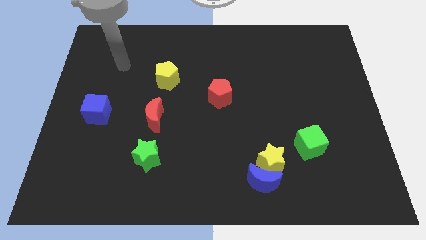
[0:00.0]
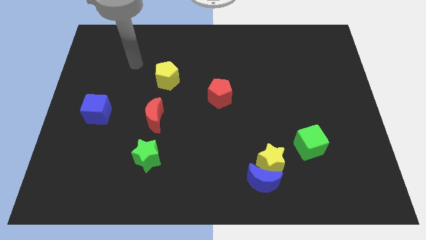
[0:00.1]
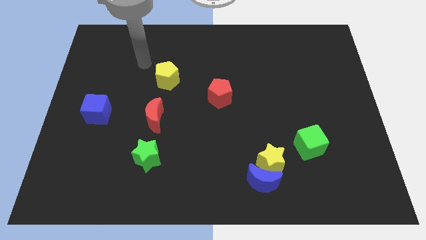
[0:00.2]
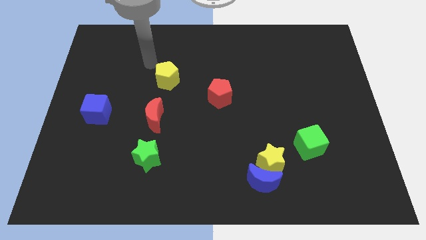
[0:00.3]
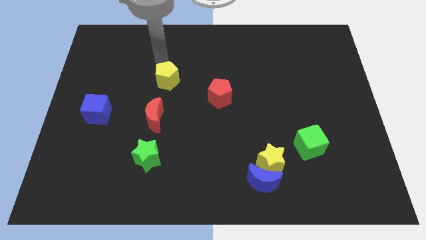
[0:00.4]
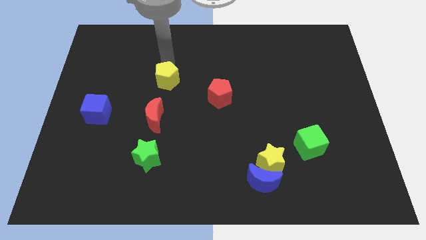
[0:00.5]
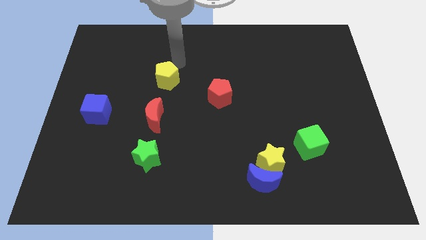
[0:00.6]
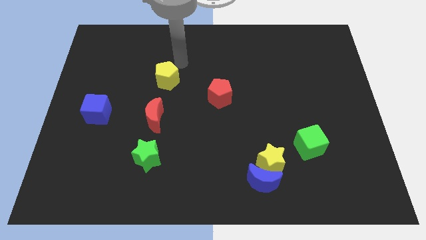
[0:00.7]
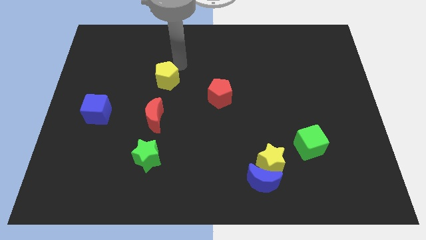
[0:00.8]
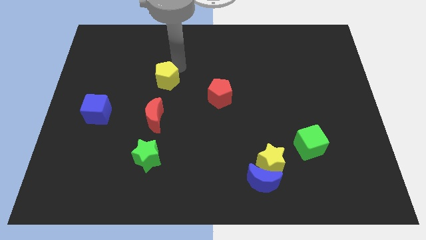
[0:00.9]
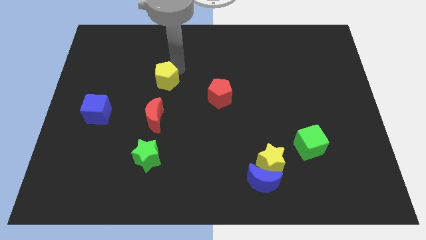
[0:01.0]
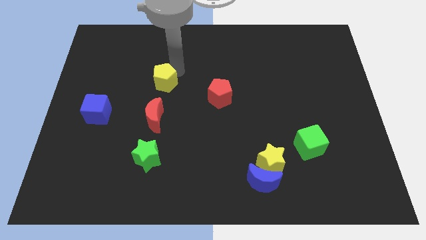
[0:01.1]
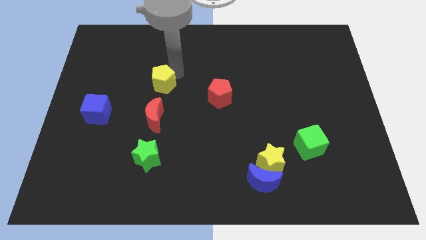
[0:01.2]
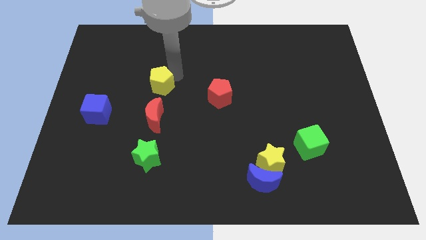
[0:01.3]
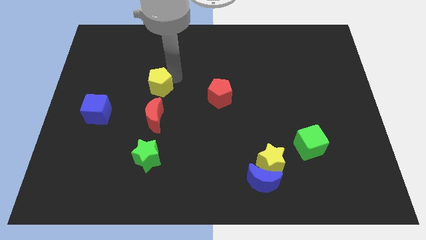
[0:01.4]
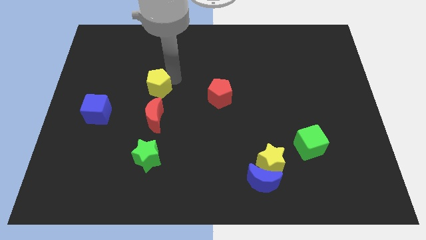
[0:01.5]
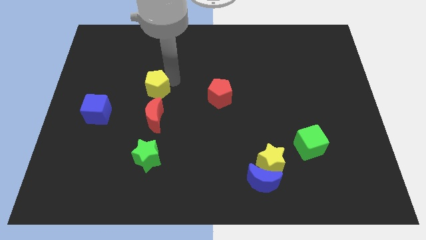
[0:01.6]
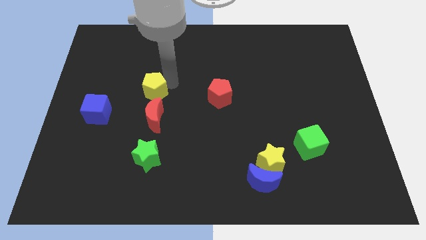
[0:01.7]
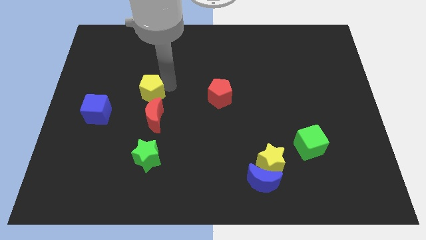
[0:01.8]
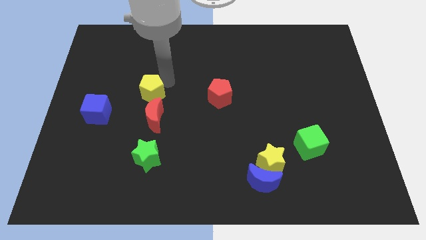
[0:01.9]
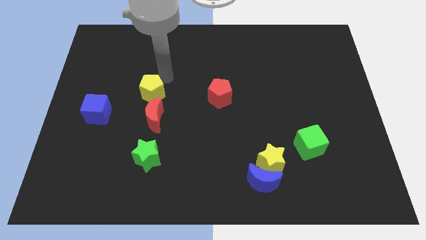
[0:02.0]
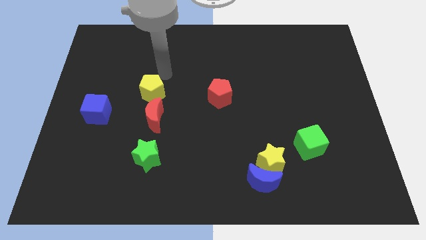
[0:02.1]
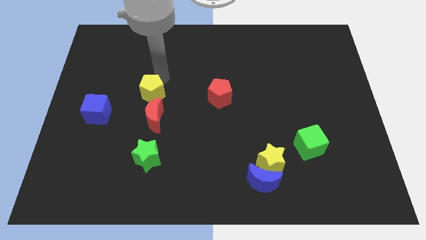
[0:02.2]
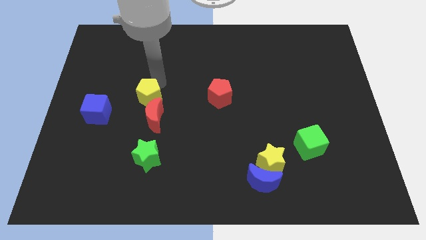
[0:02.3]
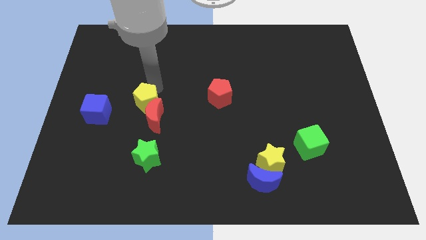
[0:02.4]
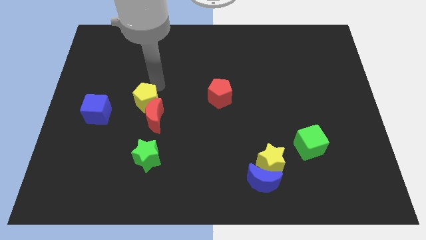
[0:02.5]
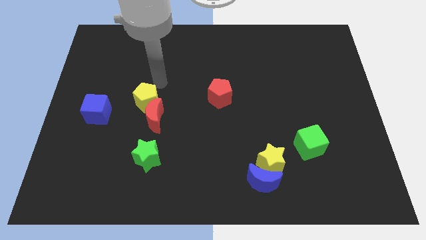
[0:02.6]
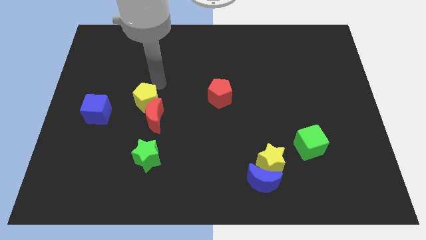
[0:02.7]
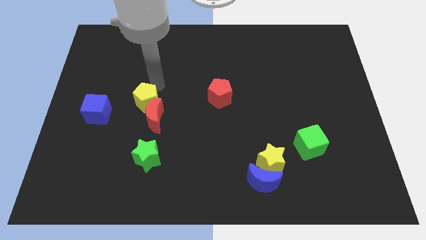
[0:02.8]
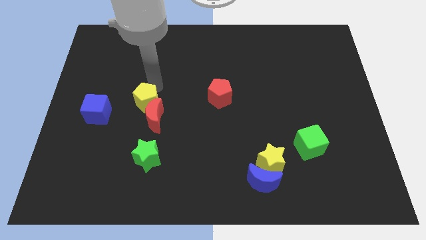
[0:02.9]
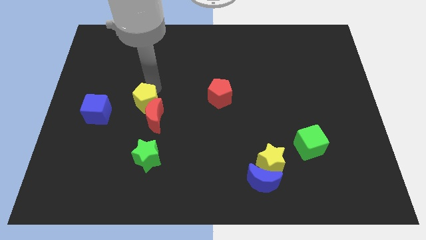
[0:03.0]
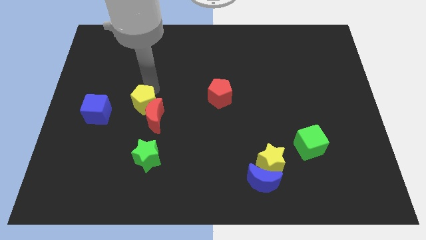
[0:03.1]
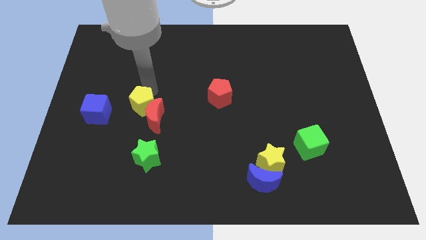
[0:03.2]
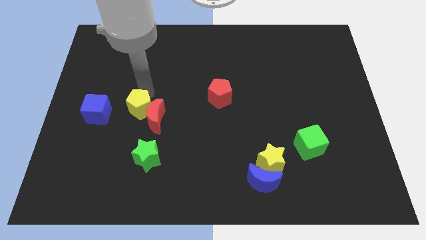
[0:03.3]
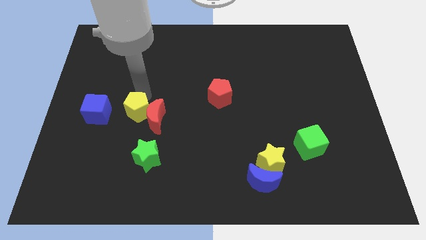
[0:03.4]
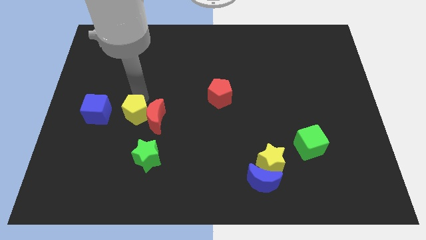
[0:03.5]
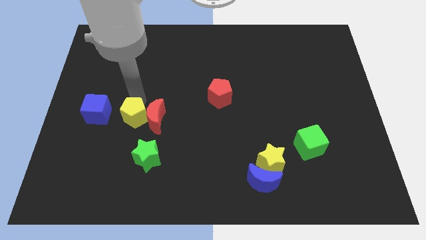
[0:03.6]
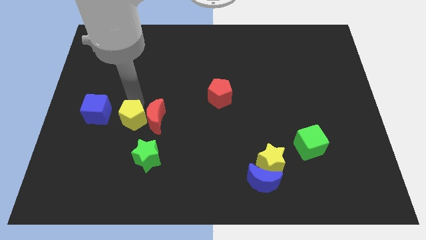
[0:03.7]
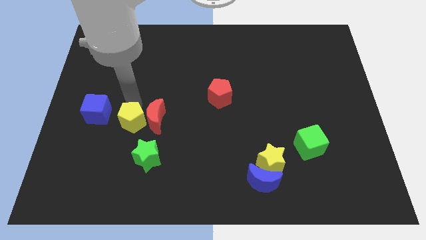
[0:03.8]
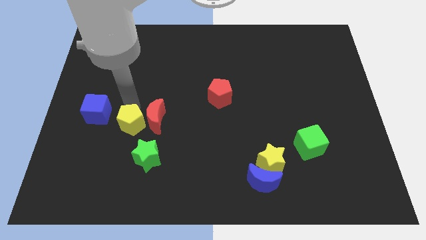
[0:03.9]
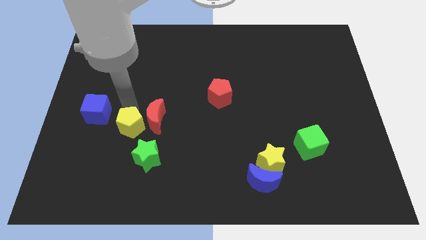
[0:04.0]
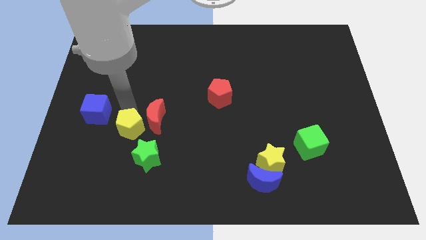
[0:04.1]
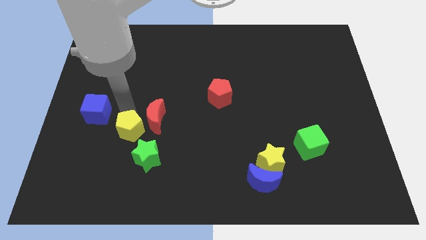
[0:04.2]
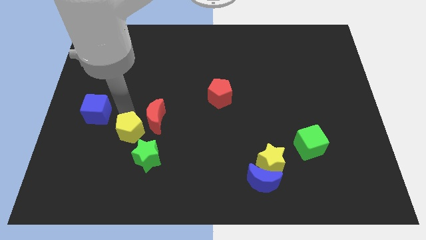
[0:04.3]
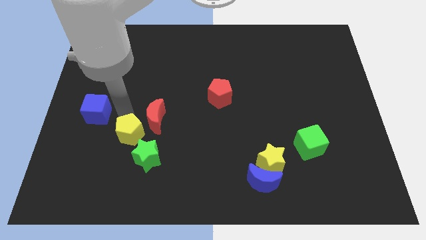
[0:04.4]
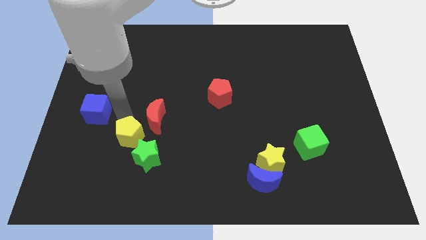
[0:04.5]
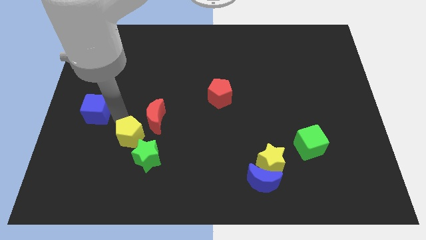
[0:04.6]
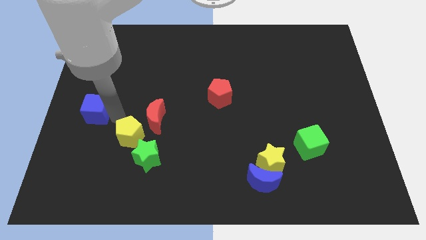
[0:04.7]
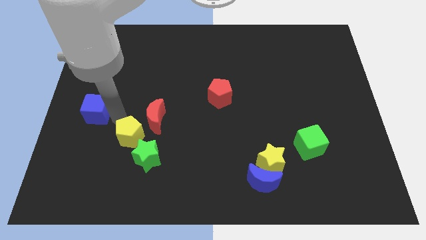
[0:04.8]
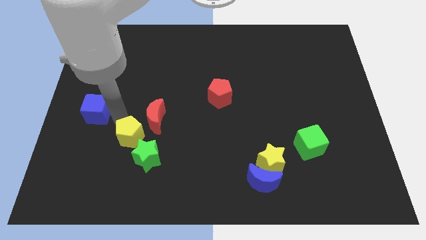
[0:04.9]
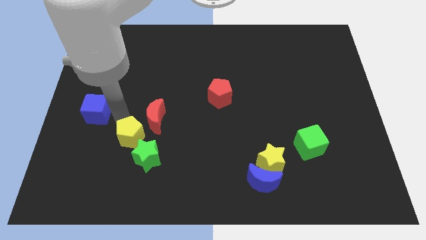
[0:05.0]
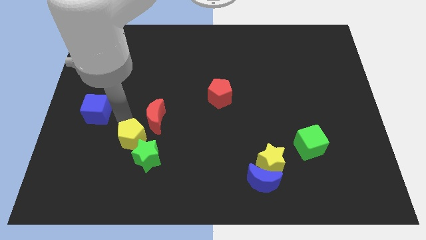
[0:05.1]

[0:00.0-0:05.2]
move the yellow pentagon close to the green star

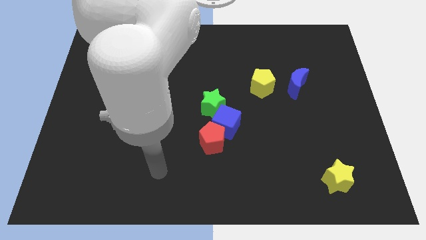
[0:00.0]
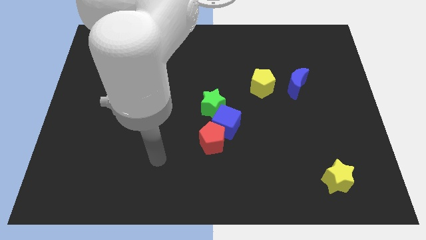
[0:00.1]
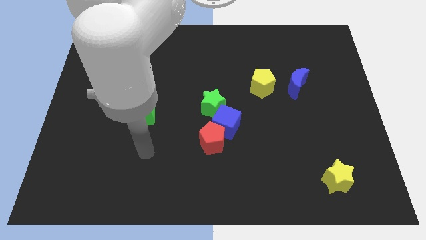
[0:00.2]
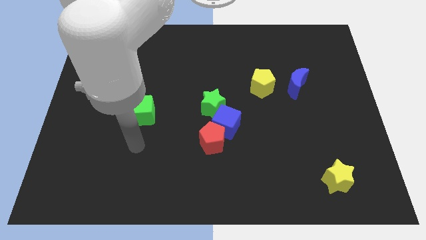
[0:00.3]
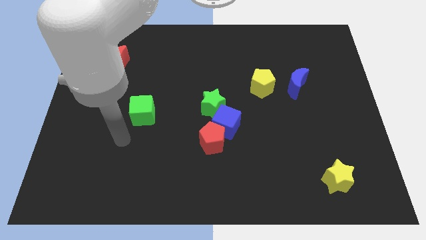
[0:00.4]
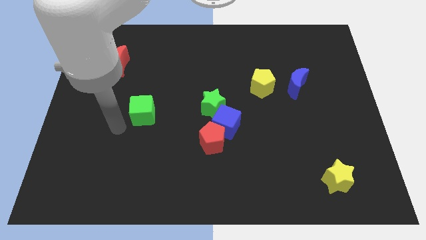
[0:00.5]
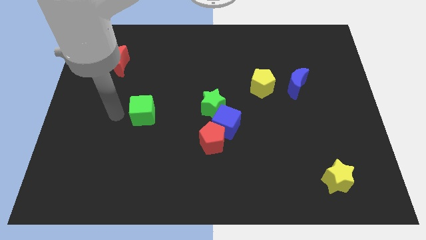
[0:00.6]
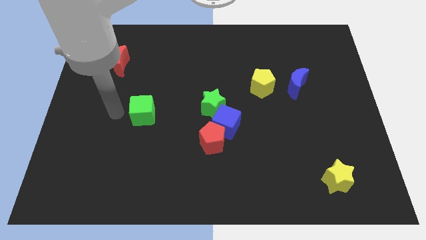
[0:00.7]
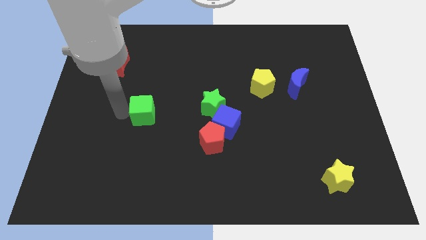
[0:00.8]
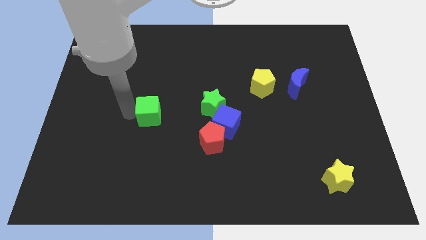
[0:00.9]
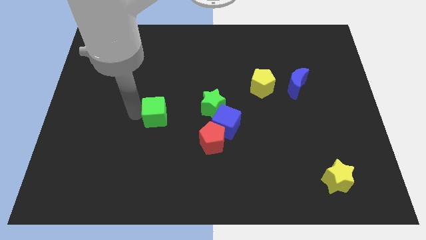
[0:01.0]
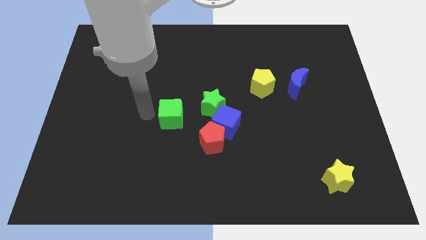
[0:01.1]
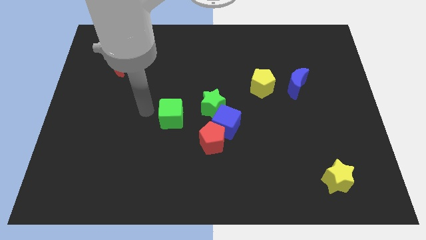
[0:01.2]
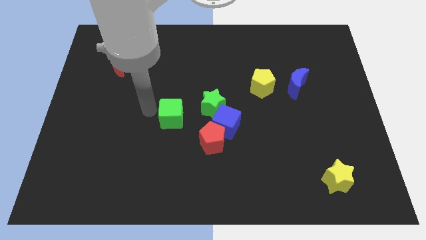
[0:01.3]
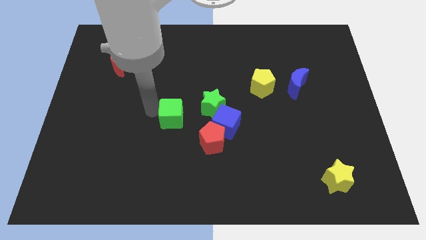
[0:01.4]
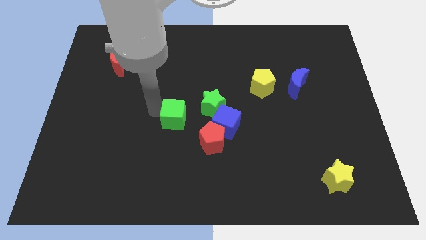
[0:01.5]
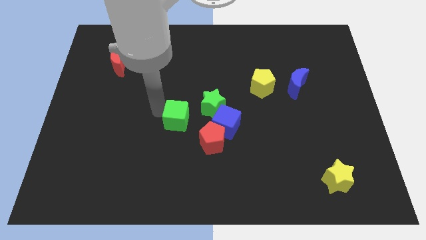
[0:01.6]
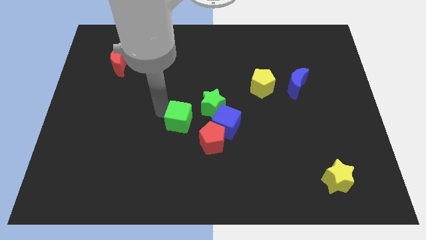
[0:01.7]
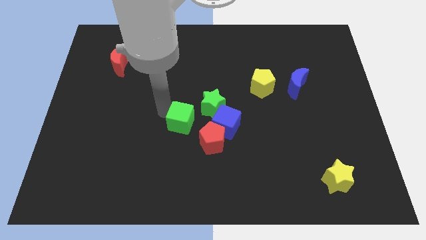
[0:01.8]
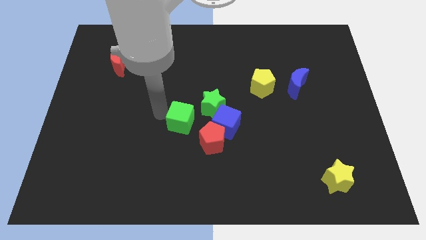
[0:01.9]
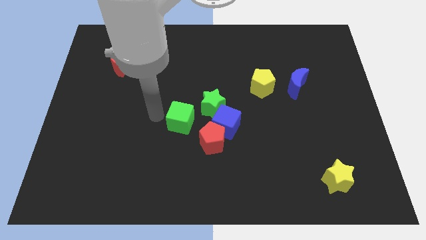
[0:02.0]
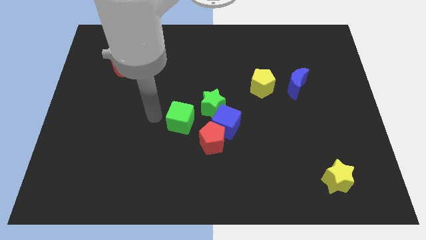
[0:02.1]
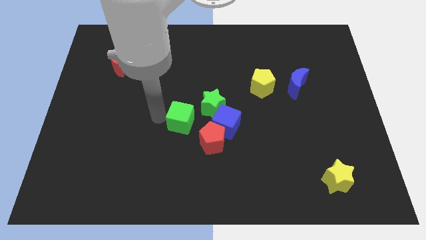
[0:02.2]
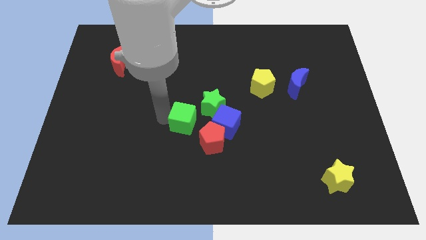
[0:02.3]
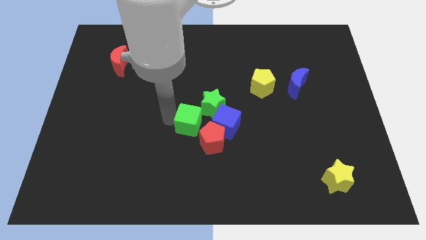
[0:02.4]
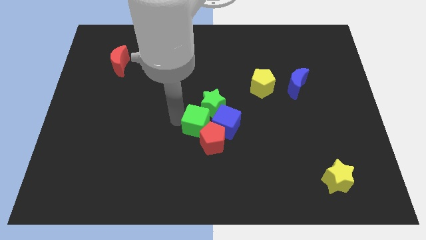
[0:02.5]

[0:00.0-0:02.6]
slide the green cube close to the red pentagon
